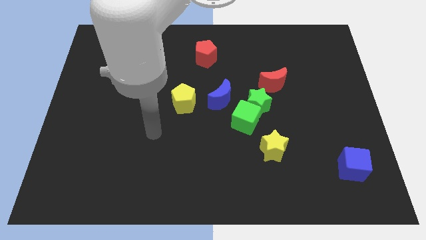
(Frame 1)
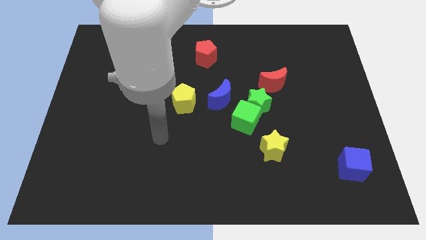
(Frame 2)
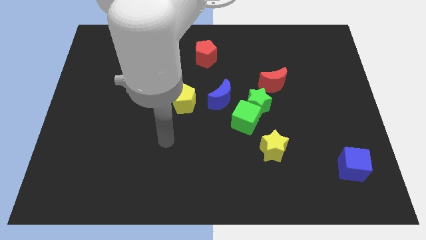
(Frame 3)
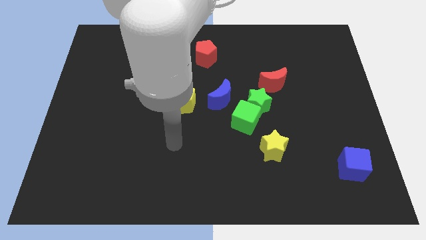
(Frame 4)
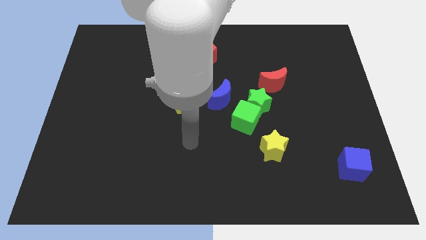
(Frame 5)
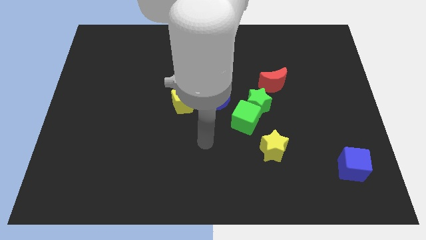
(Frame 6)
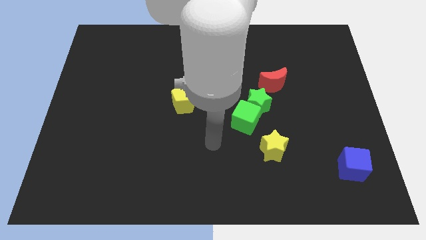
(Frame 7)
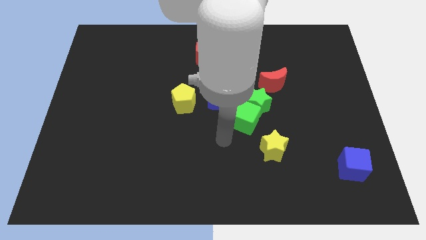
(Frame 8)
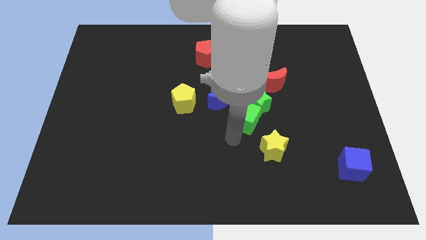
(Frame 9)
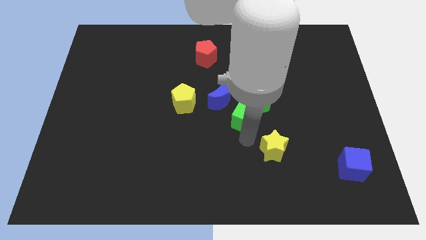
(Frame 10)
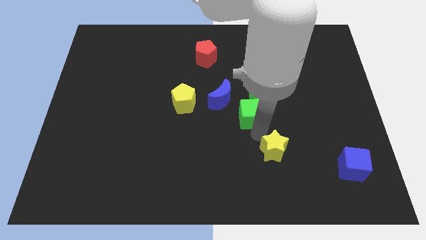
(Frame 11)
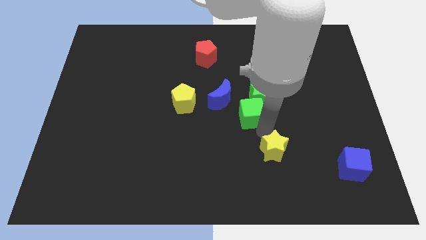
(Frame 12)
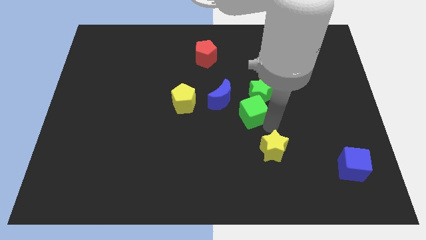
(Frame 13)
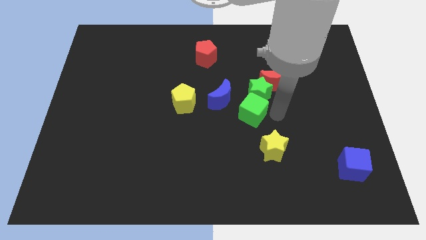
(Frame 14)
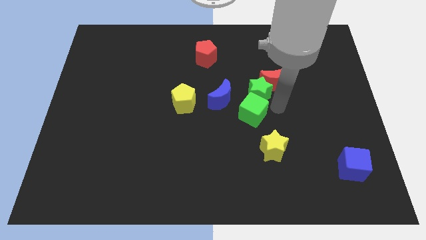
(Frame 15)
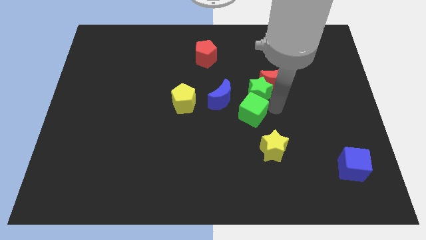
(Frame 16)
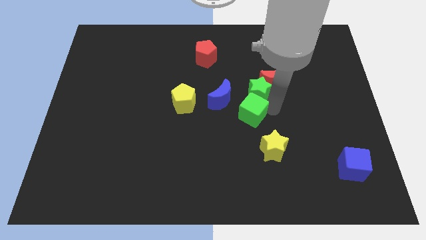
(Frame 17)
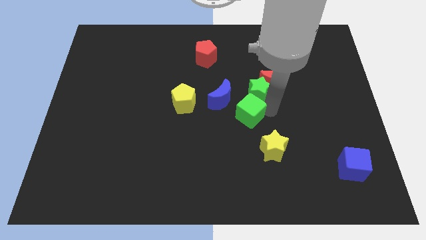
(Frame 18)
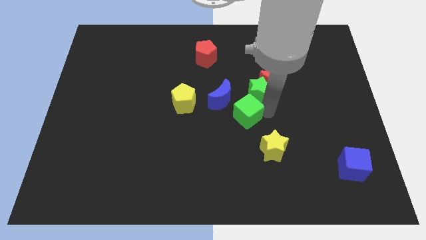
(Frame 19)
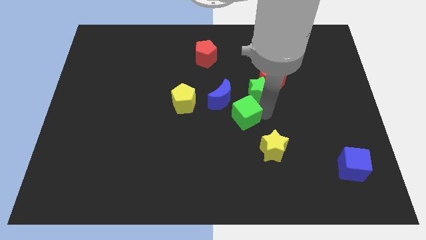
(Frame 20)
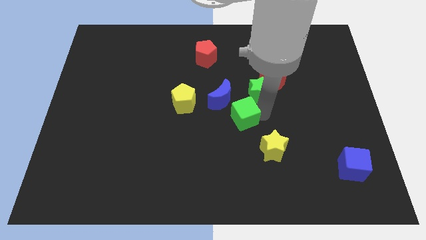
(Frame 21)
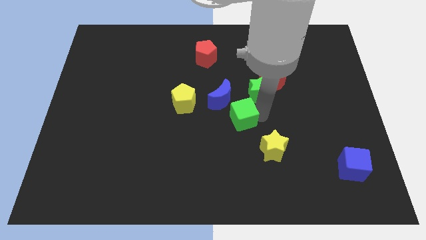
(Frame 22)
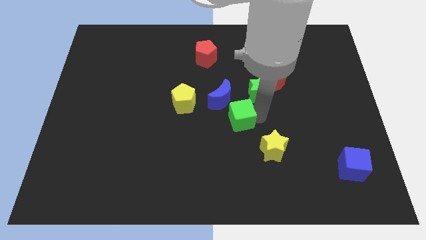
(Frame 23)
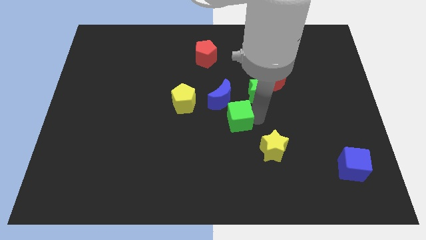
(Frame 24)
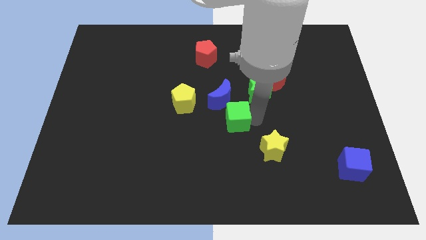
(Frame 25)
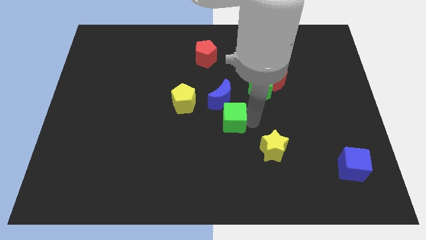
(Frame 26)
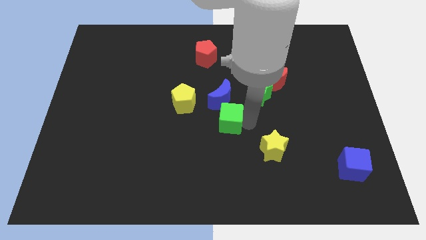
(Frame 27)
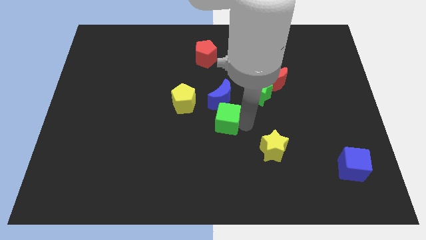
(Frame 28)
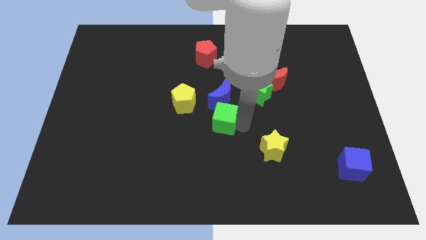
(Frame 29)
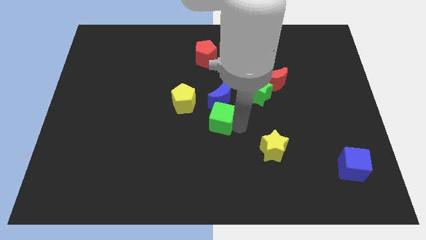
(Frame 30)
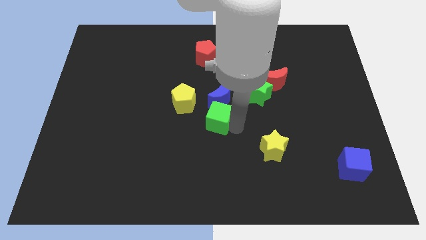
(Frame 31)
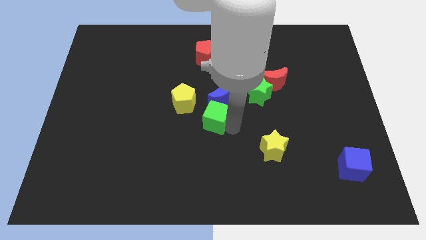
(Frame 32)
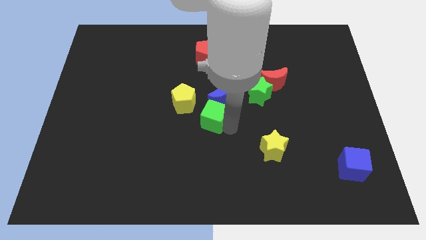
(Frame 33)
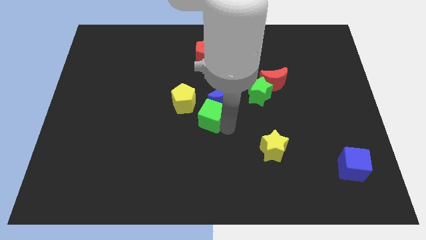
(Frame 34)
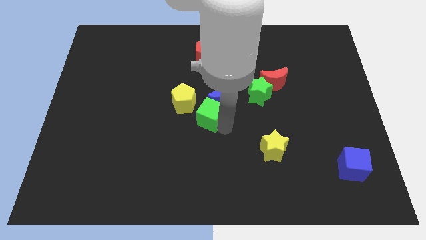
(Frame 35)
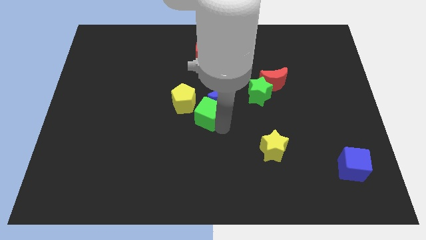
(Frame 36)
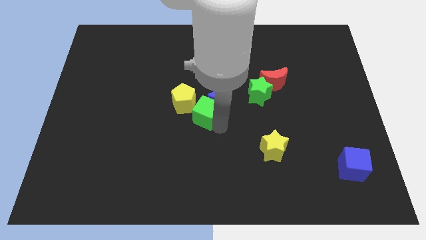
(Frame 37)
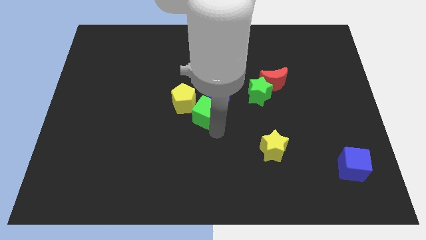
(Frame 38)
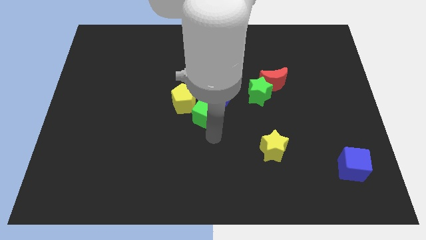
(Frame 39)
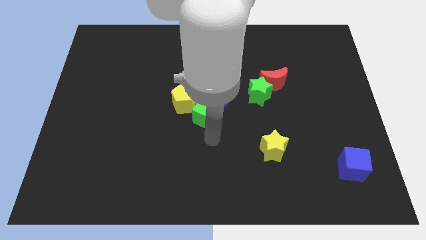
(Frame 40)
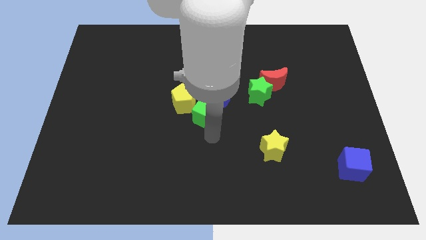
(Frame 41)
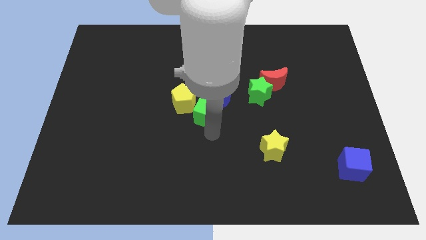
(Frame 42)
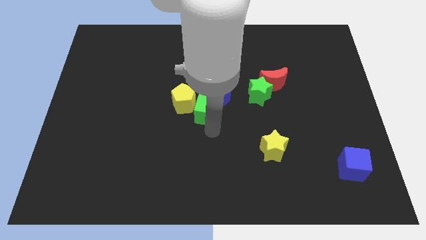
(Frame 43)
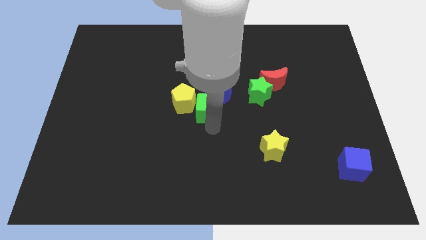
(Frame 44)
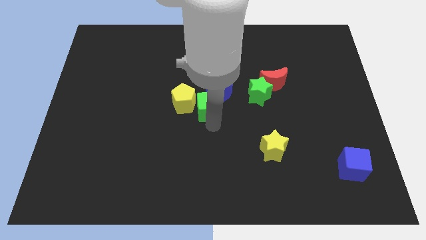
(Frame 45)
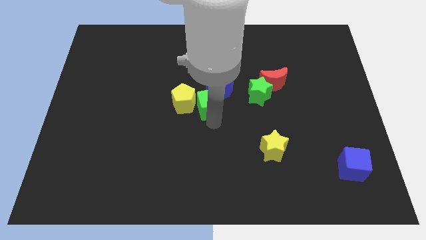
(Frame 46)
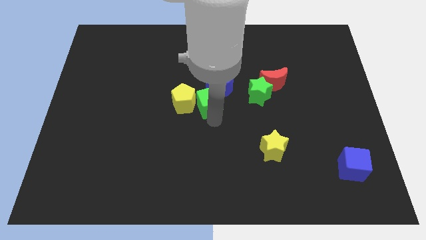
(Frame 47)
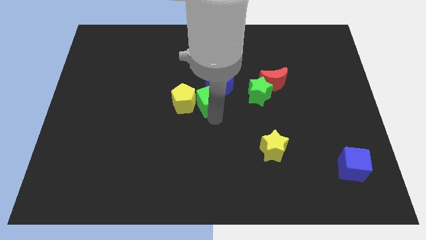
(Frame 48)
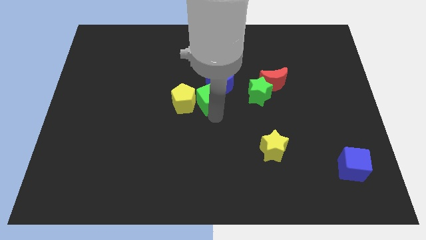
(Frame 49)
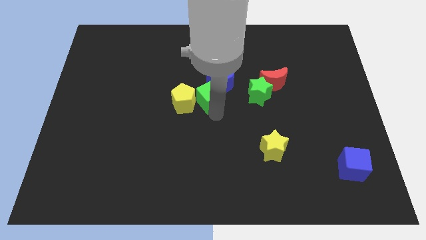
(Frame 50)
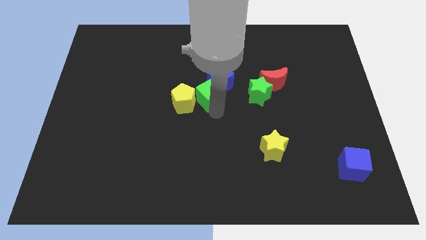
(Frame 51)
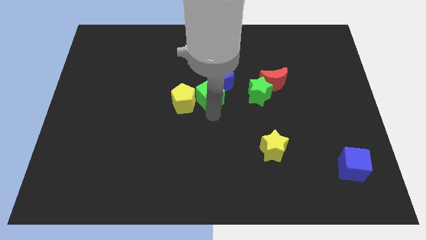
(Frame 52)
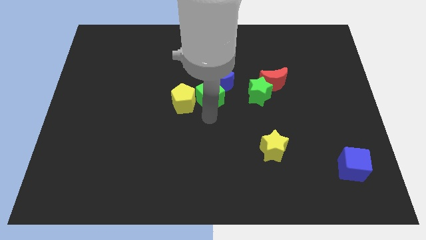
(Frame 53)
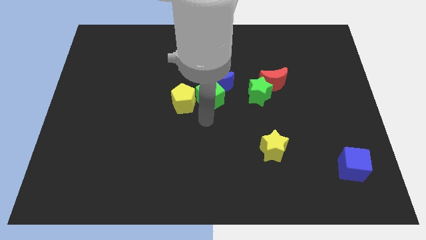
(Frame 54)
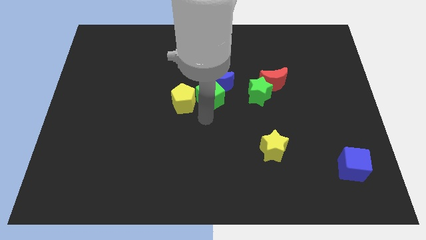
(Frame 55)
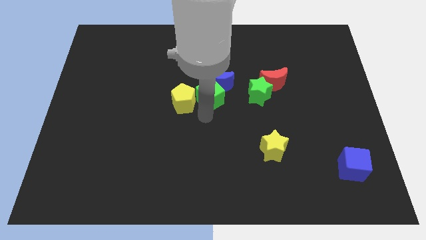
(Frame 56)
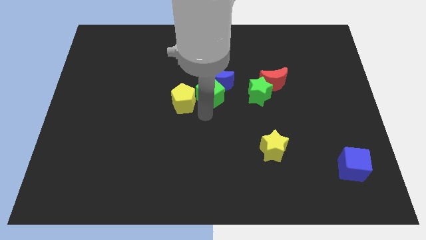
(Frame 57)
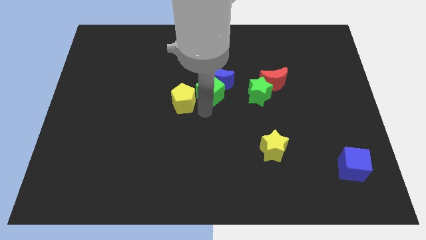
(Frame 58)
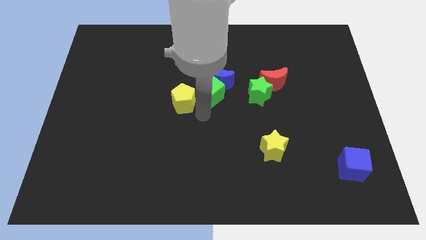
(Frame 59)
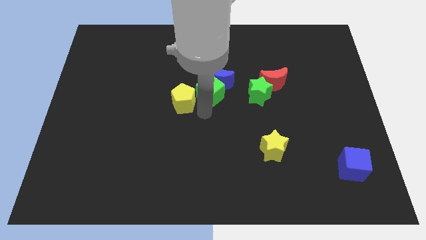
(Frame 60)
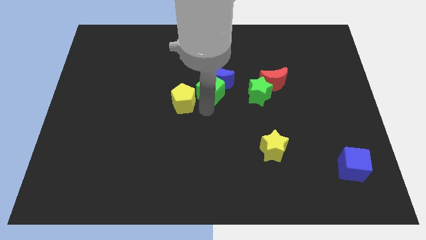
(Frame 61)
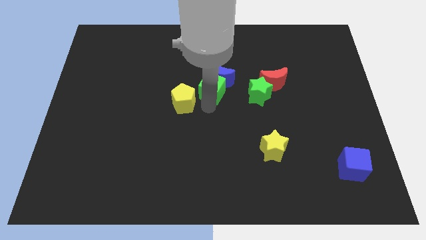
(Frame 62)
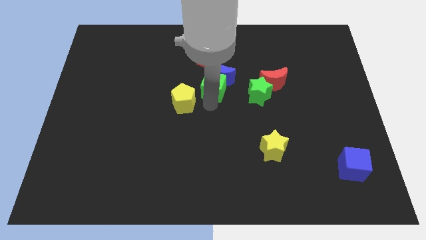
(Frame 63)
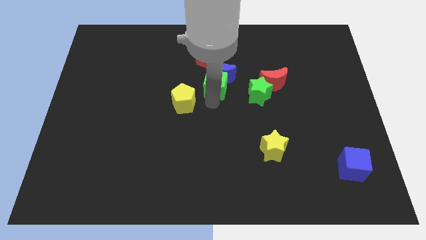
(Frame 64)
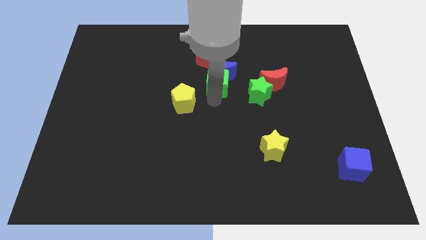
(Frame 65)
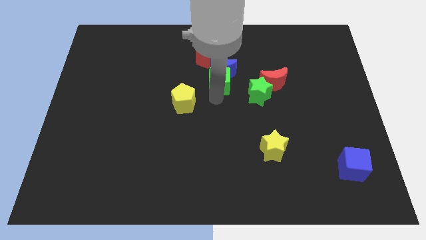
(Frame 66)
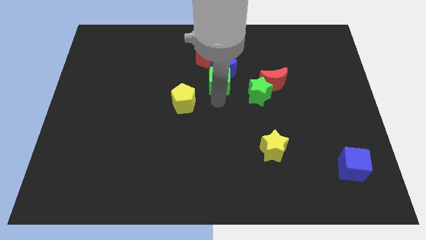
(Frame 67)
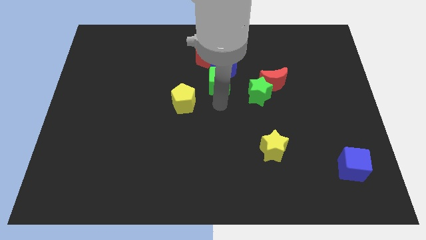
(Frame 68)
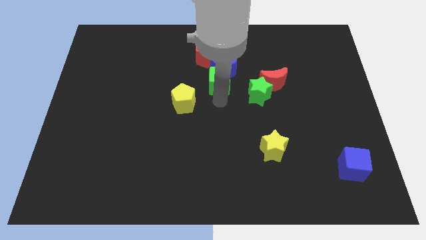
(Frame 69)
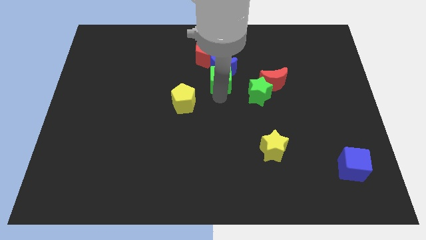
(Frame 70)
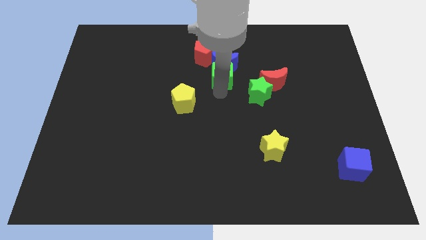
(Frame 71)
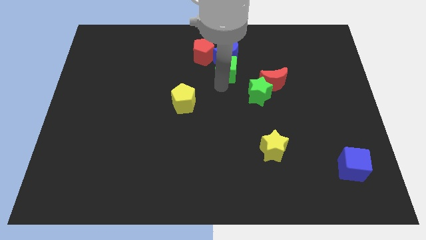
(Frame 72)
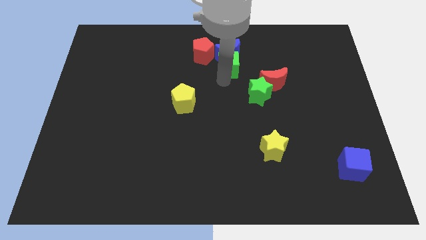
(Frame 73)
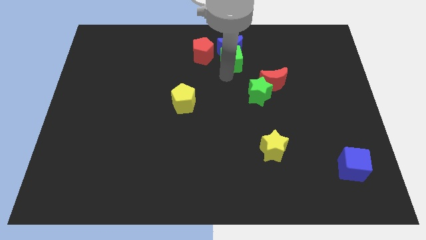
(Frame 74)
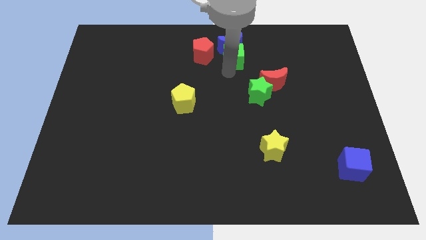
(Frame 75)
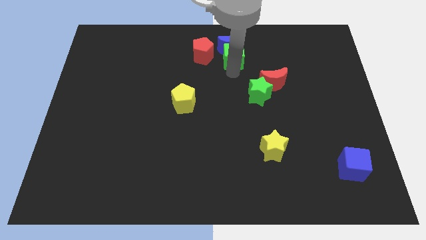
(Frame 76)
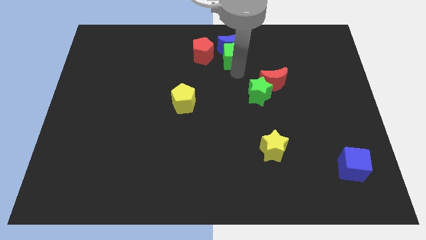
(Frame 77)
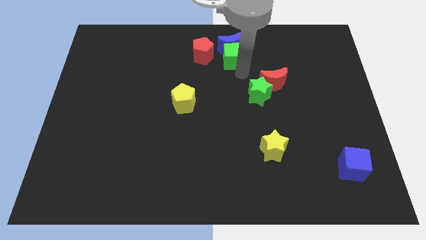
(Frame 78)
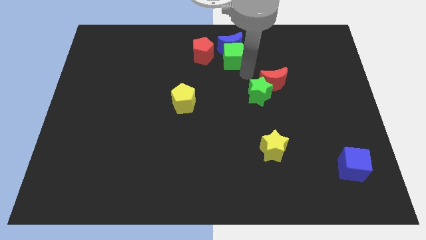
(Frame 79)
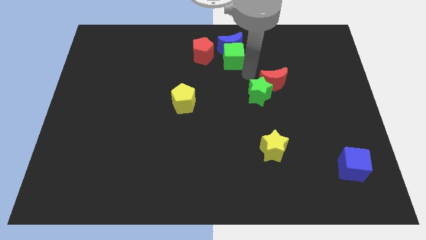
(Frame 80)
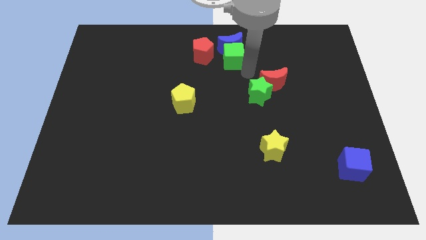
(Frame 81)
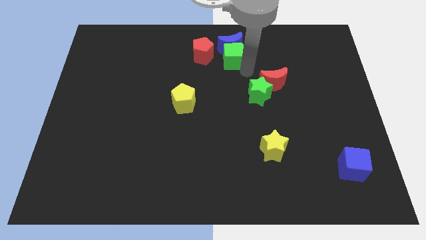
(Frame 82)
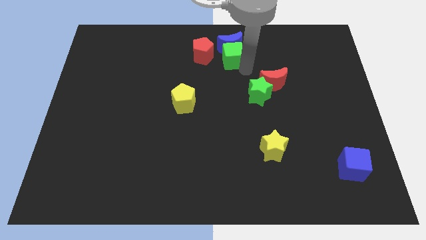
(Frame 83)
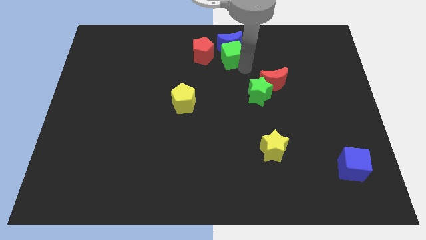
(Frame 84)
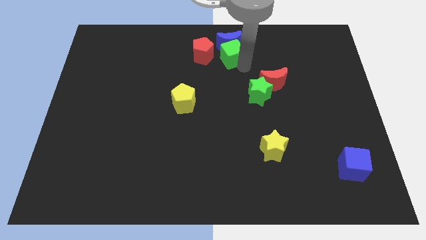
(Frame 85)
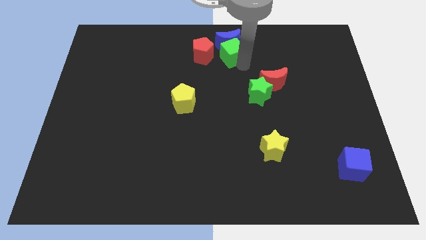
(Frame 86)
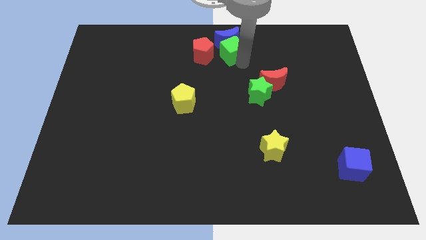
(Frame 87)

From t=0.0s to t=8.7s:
push the green cube to the top side
